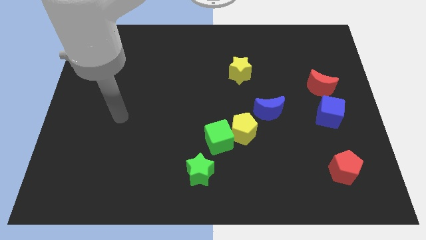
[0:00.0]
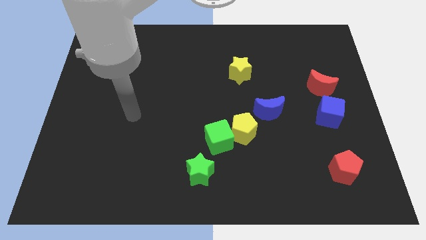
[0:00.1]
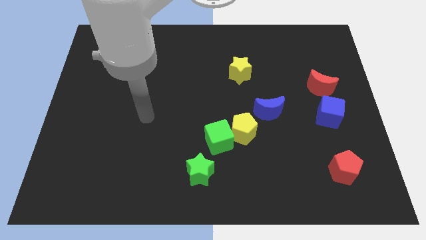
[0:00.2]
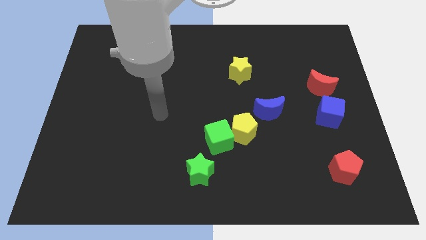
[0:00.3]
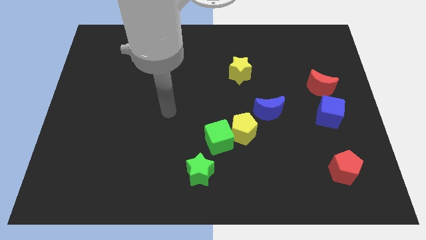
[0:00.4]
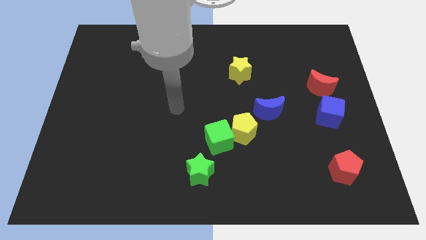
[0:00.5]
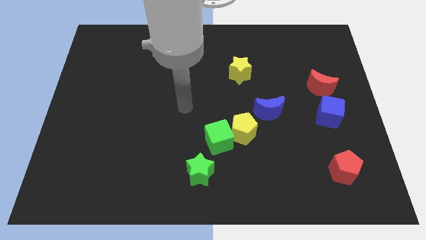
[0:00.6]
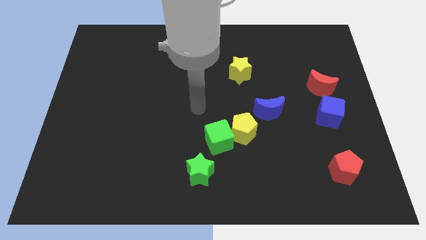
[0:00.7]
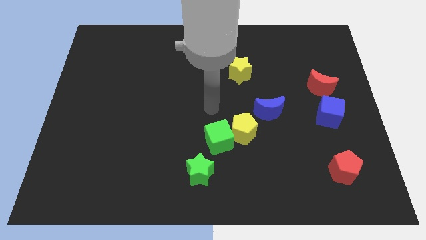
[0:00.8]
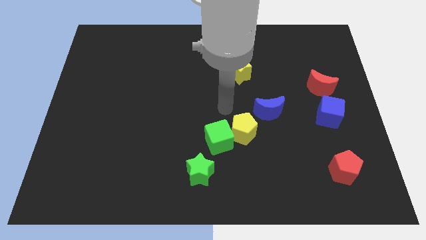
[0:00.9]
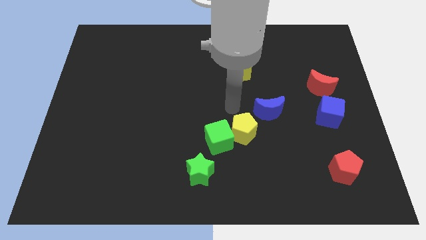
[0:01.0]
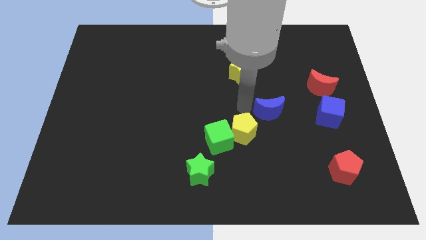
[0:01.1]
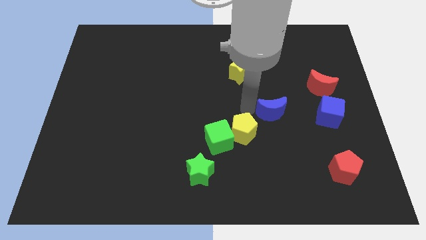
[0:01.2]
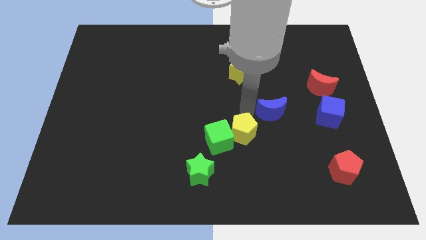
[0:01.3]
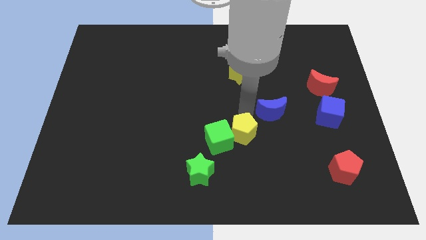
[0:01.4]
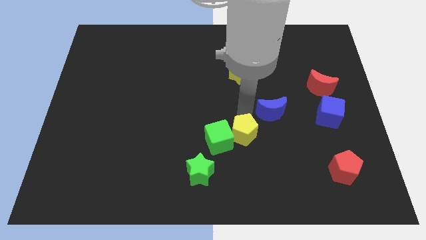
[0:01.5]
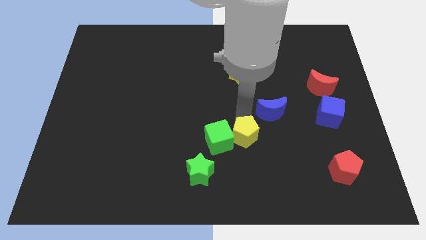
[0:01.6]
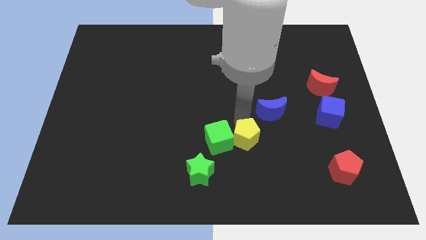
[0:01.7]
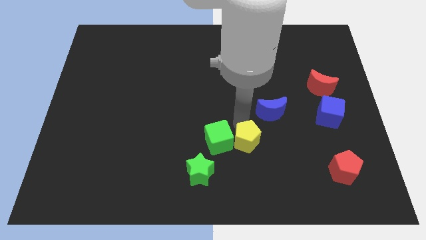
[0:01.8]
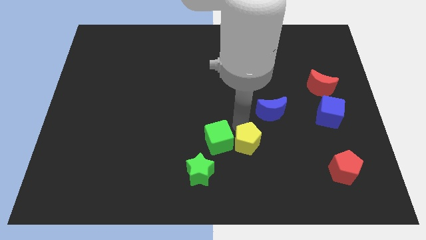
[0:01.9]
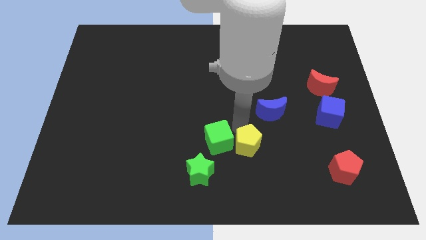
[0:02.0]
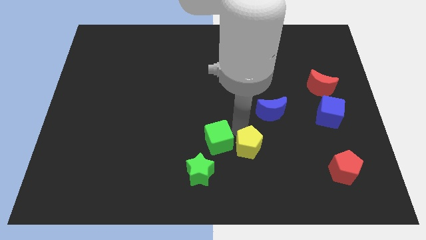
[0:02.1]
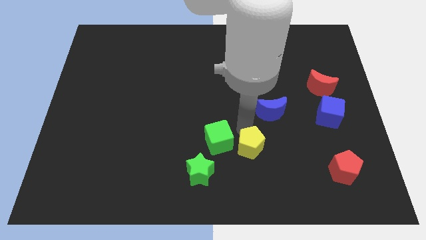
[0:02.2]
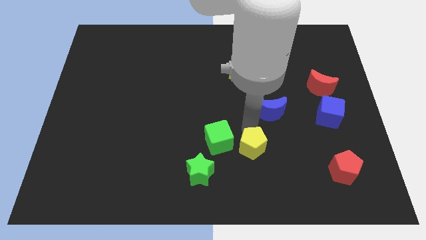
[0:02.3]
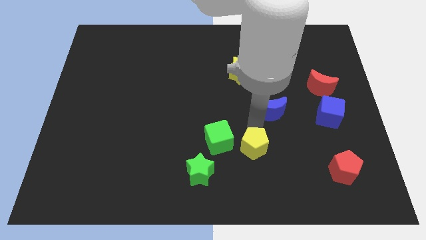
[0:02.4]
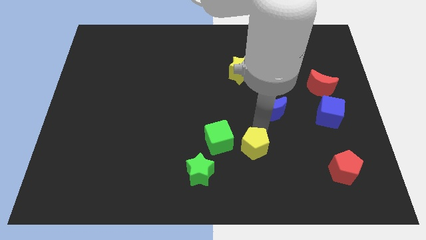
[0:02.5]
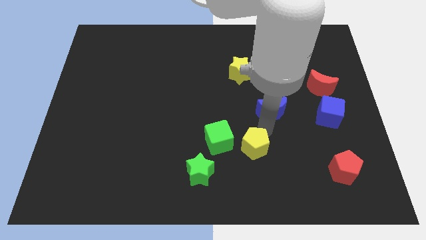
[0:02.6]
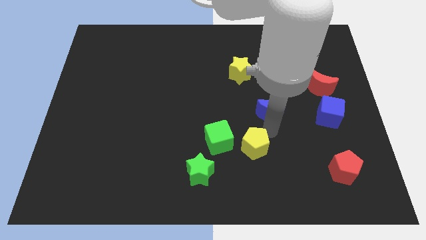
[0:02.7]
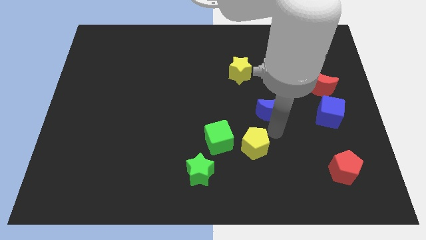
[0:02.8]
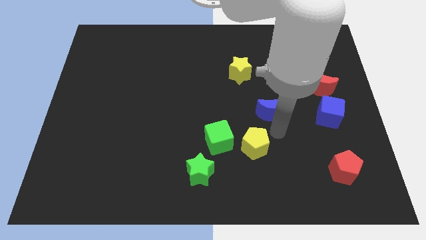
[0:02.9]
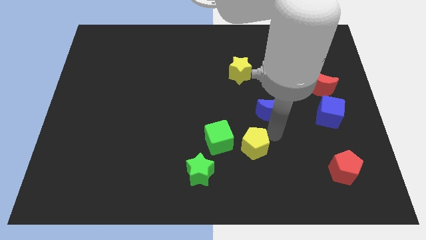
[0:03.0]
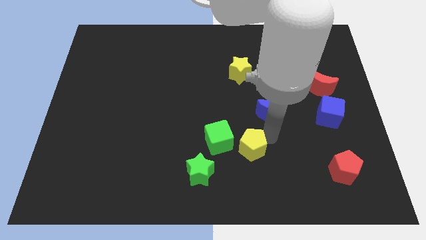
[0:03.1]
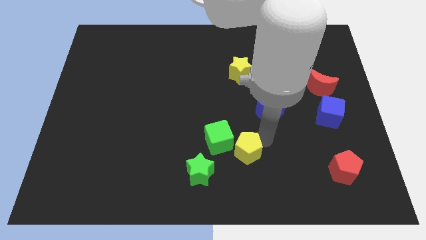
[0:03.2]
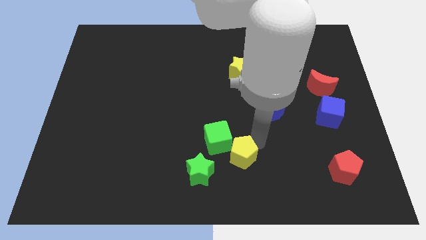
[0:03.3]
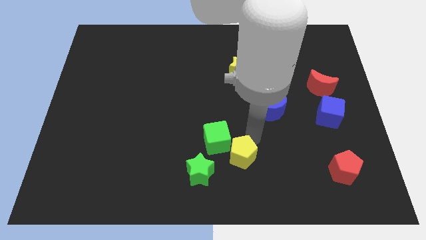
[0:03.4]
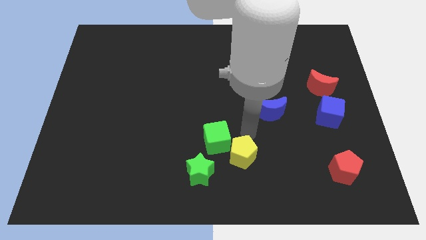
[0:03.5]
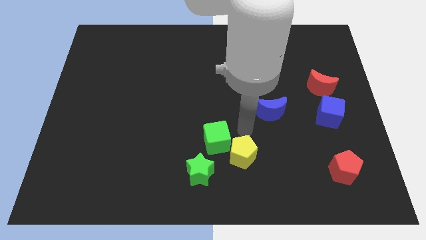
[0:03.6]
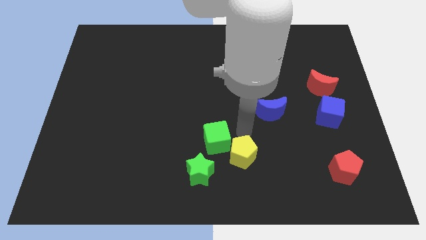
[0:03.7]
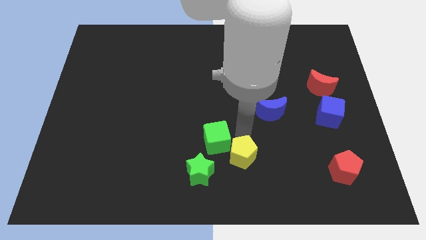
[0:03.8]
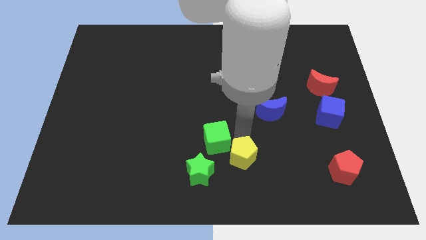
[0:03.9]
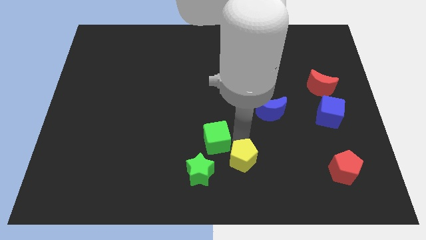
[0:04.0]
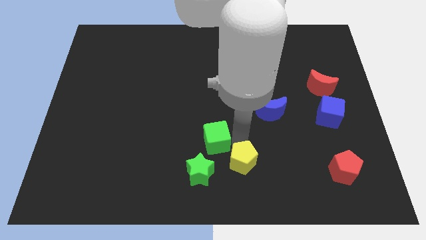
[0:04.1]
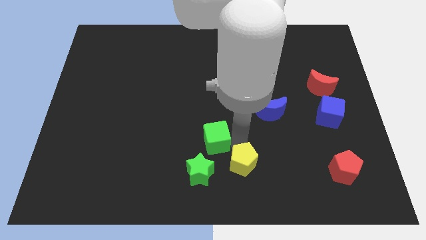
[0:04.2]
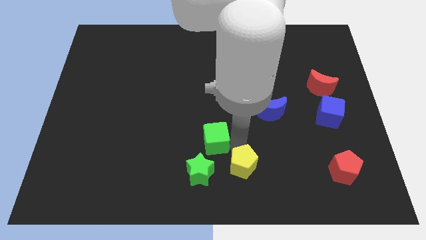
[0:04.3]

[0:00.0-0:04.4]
move the yellow pentagon away from the green cube and blue moon

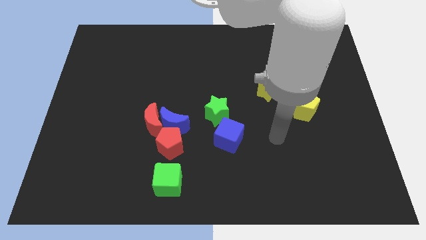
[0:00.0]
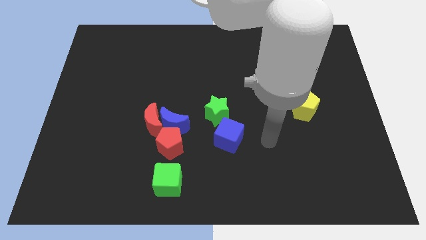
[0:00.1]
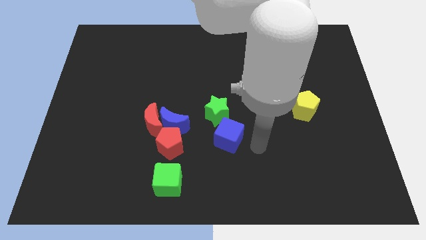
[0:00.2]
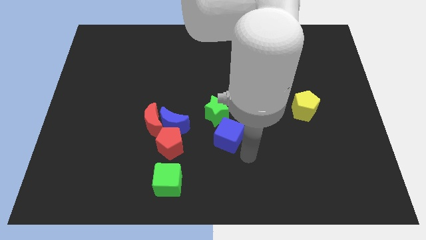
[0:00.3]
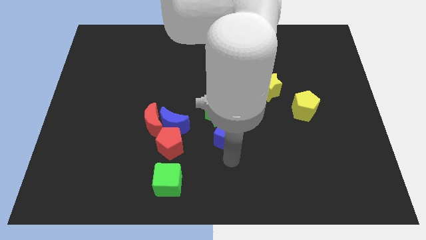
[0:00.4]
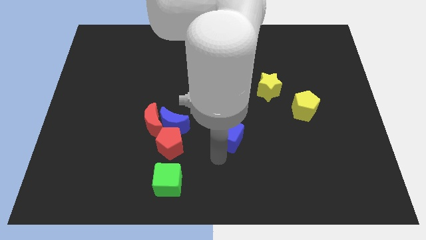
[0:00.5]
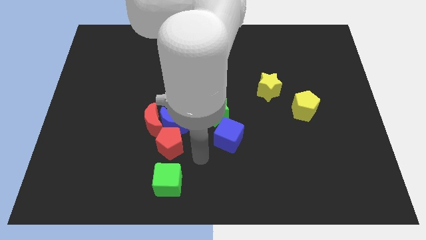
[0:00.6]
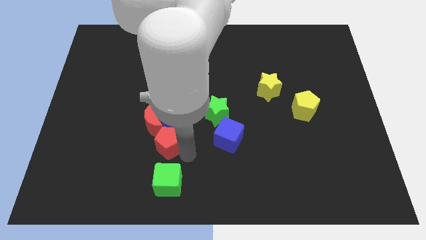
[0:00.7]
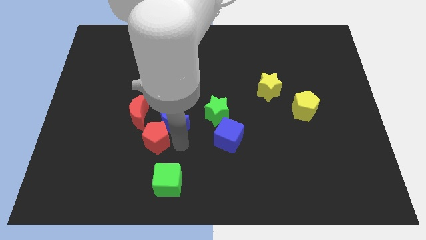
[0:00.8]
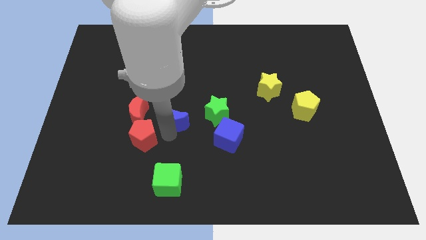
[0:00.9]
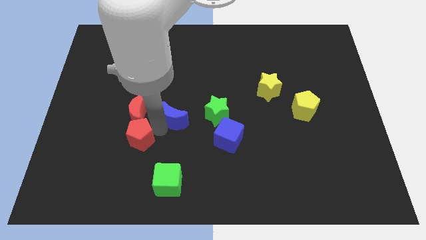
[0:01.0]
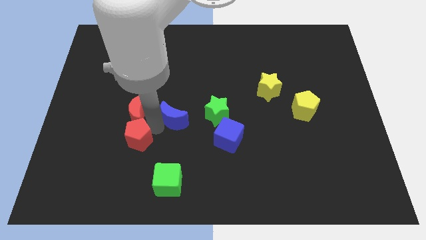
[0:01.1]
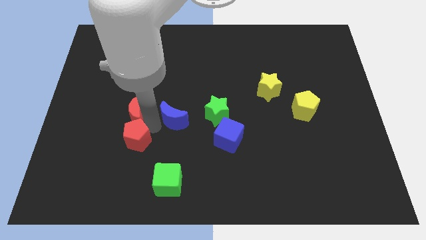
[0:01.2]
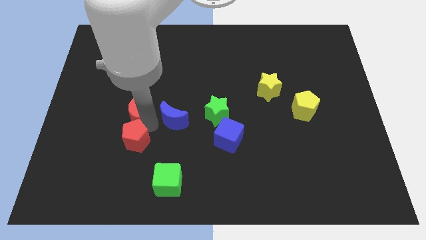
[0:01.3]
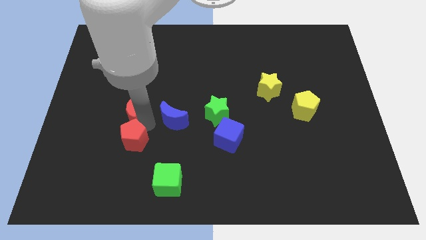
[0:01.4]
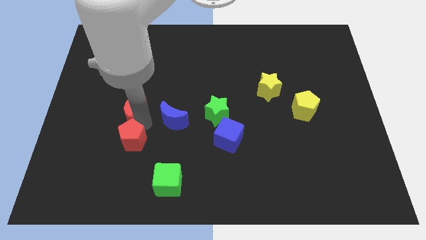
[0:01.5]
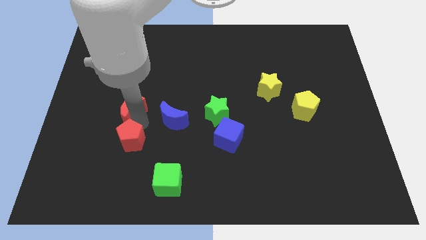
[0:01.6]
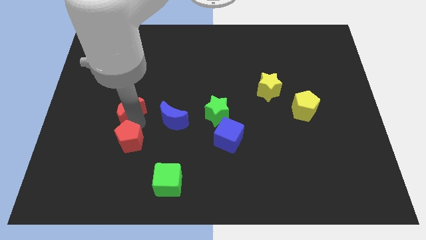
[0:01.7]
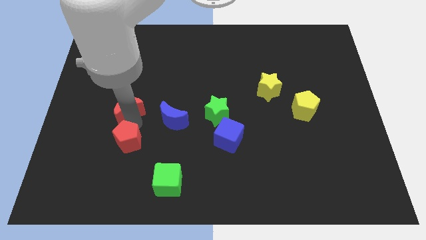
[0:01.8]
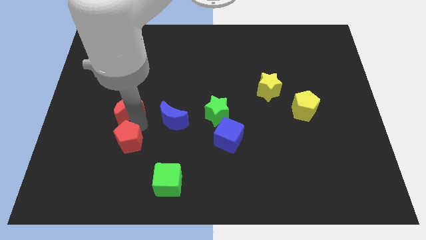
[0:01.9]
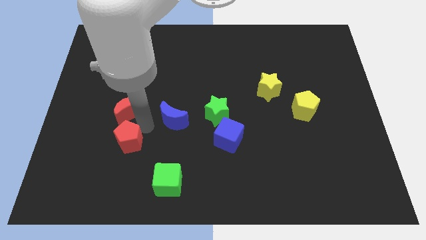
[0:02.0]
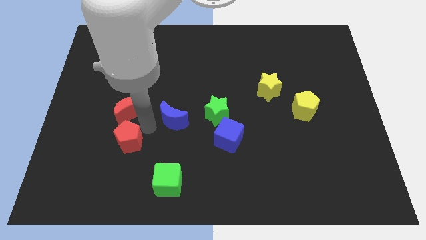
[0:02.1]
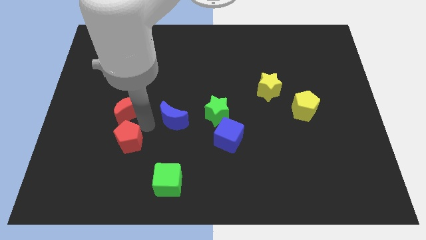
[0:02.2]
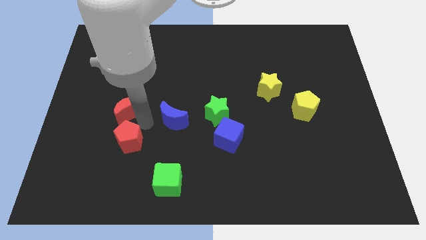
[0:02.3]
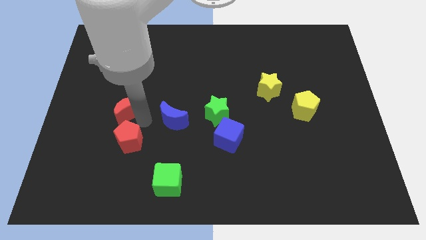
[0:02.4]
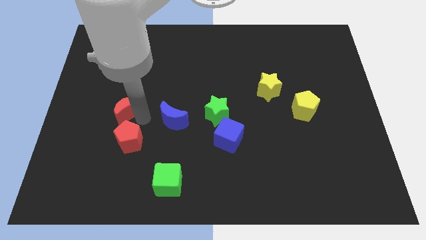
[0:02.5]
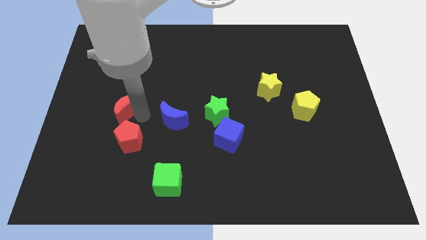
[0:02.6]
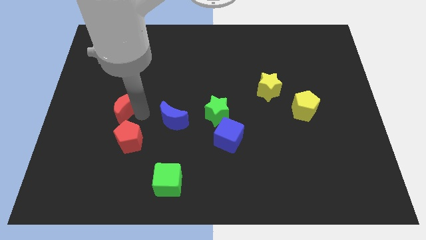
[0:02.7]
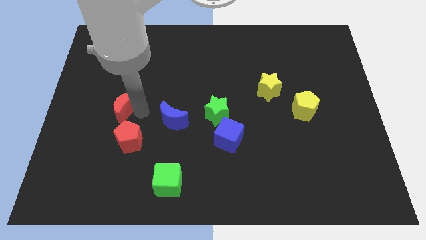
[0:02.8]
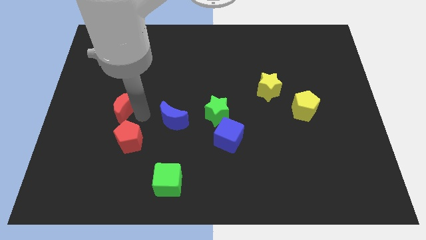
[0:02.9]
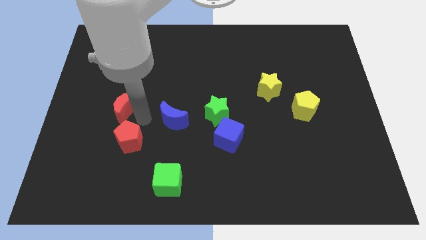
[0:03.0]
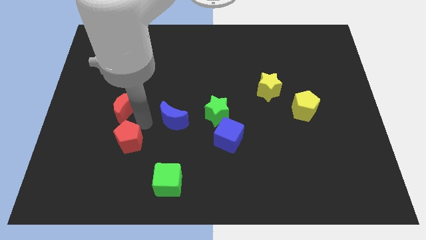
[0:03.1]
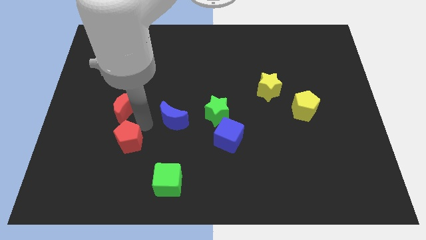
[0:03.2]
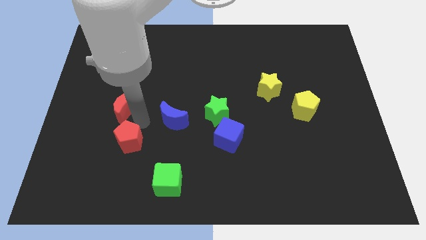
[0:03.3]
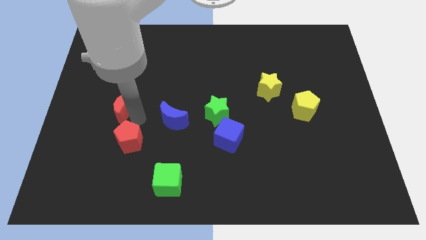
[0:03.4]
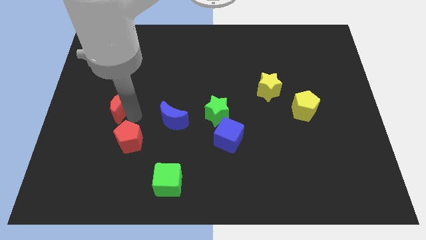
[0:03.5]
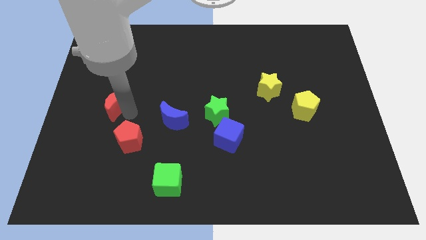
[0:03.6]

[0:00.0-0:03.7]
separate the red moon from the blue moon and red pentagon

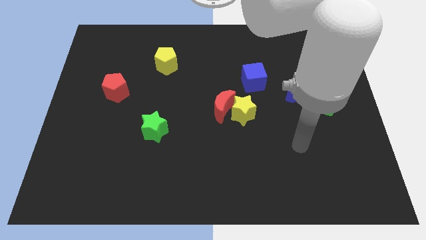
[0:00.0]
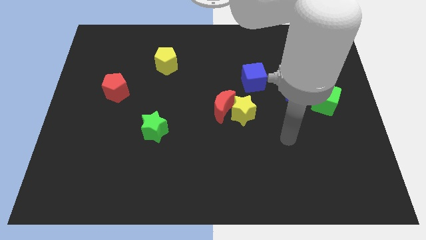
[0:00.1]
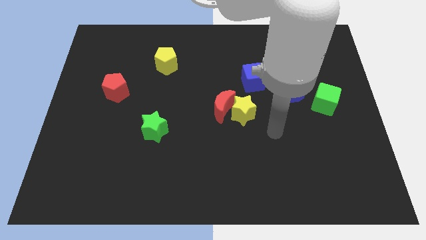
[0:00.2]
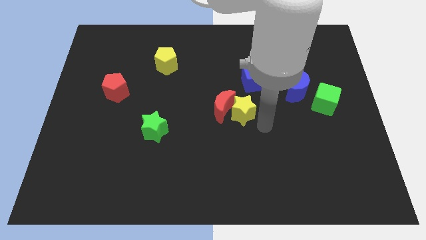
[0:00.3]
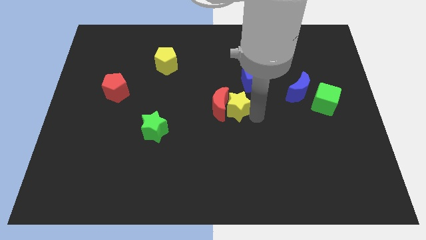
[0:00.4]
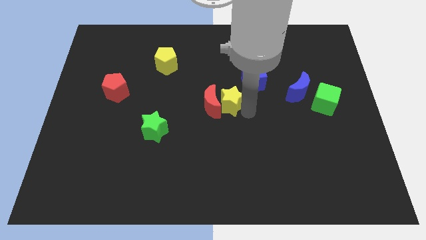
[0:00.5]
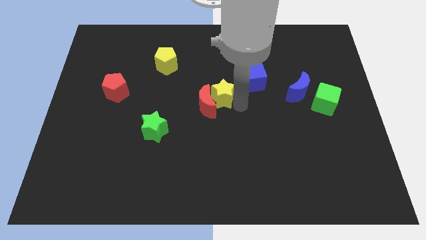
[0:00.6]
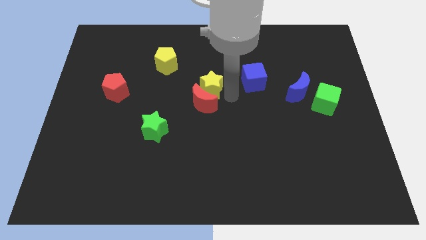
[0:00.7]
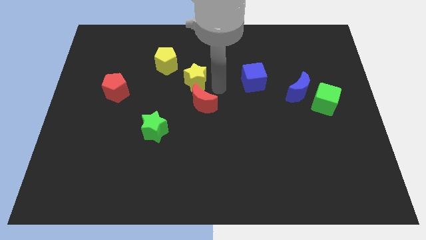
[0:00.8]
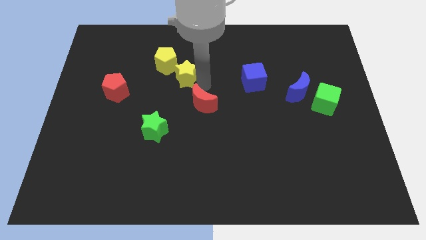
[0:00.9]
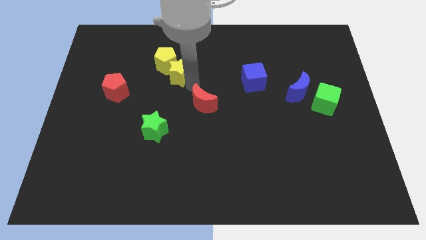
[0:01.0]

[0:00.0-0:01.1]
pull the red moon apart from the yellow star

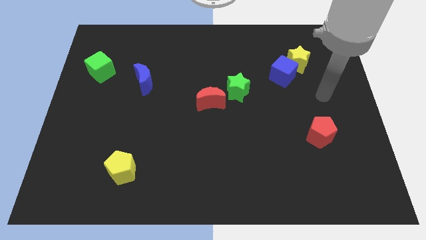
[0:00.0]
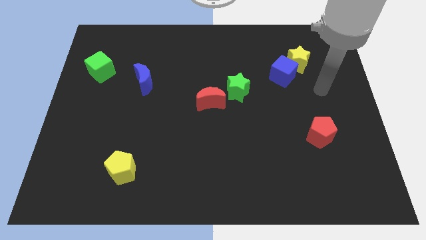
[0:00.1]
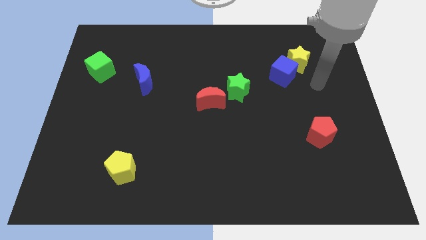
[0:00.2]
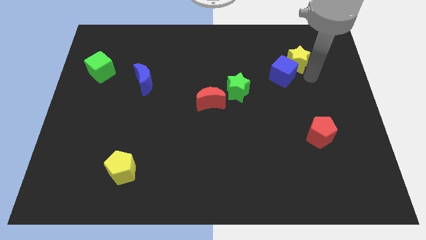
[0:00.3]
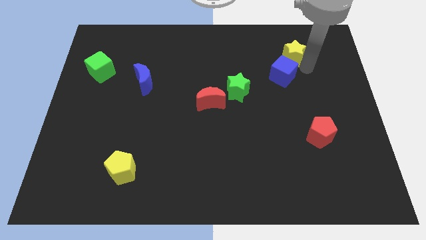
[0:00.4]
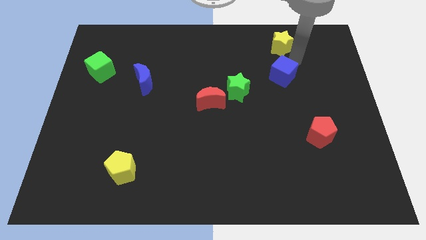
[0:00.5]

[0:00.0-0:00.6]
separate the blue cube from the yellow star
